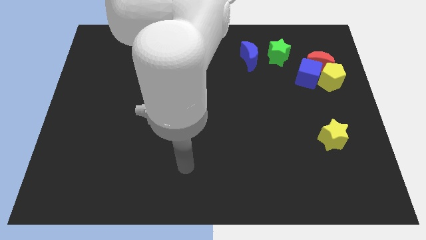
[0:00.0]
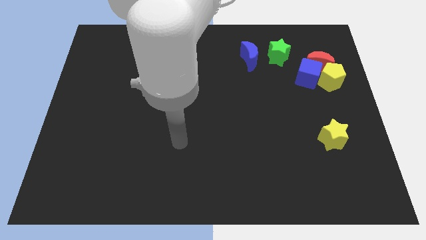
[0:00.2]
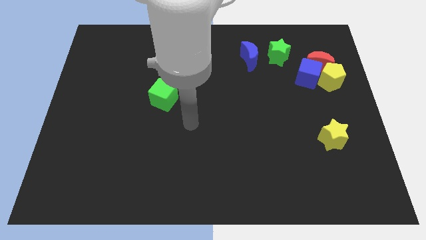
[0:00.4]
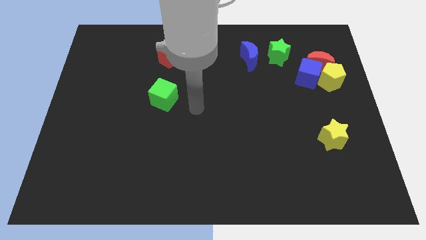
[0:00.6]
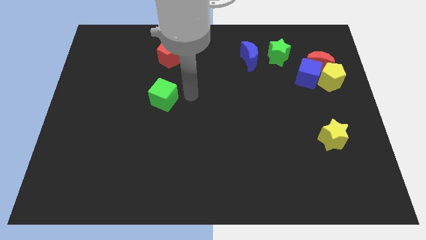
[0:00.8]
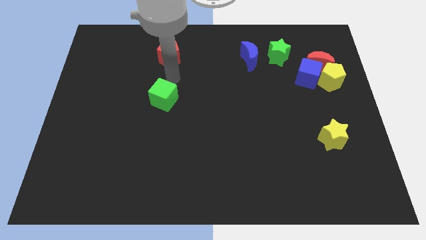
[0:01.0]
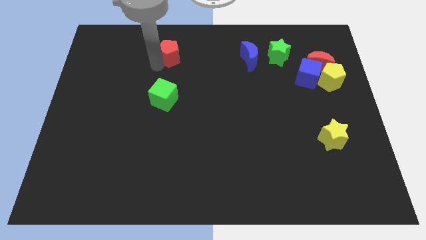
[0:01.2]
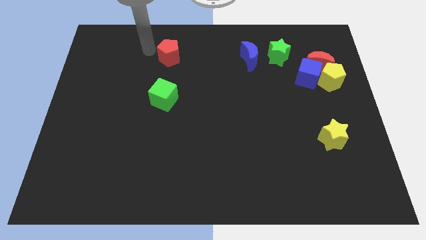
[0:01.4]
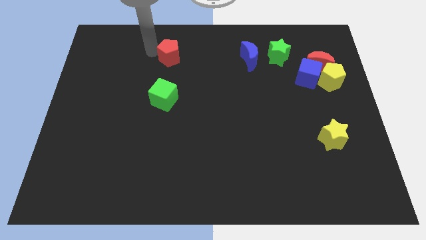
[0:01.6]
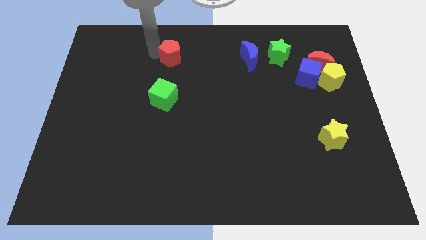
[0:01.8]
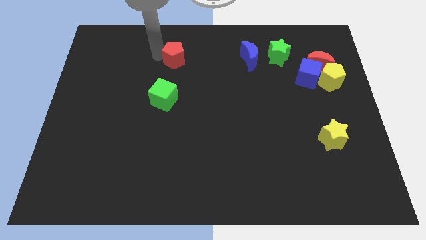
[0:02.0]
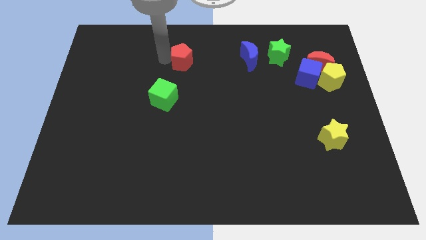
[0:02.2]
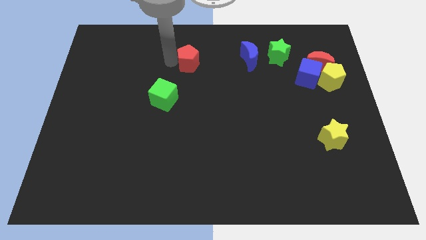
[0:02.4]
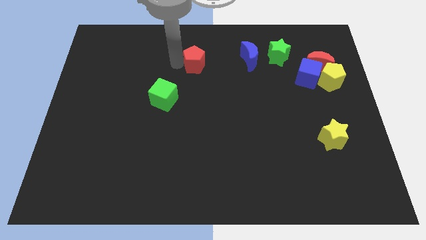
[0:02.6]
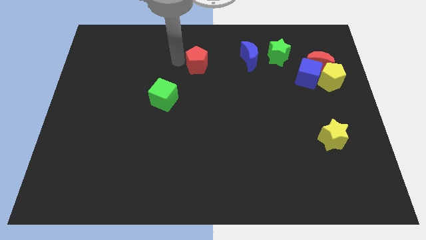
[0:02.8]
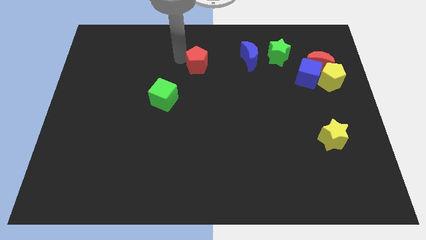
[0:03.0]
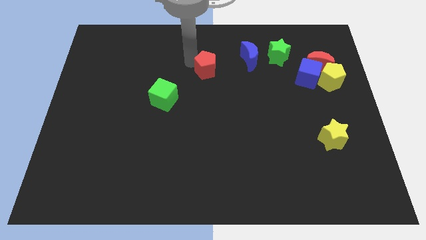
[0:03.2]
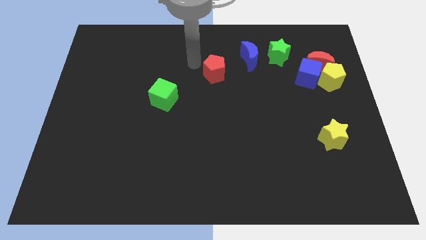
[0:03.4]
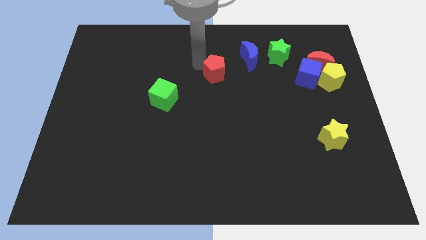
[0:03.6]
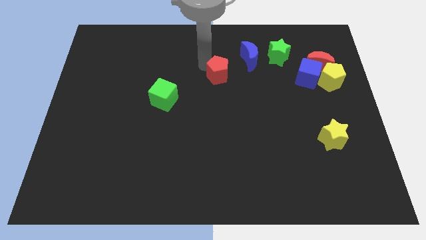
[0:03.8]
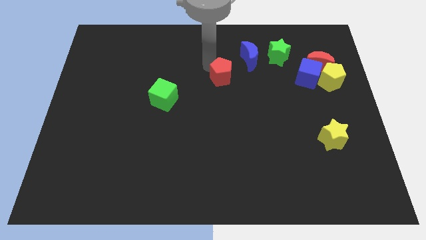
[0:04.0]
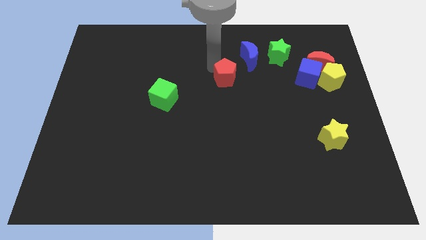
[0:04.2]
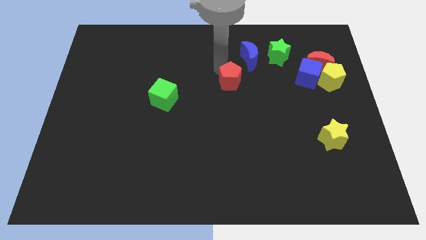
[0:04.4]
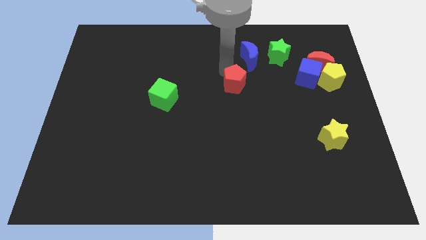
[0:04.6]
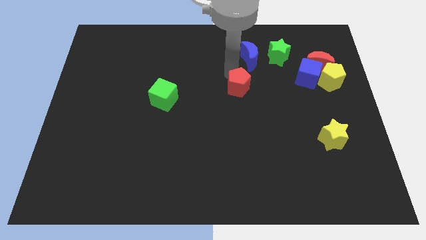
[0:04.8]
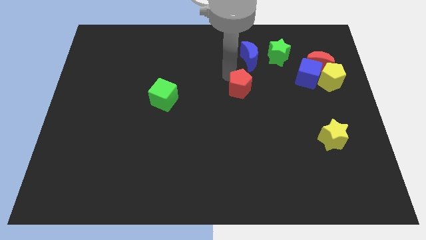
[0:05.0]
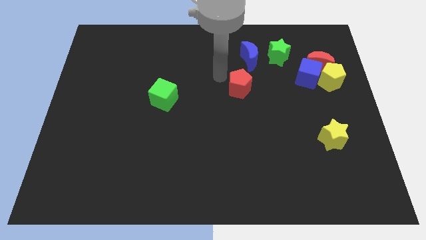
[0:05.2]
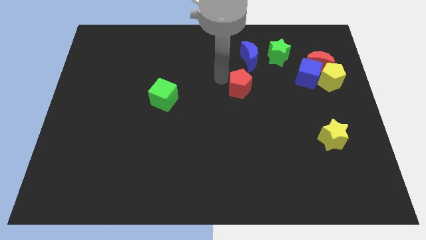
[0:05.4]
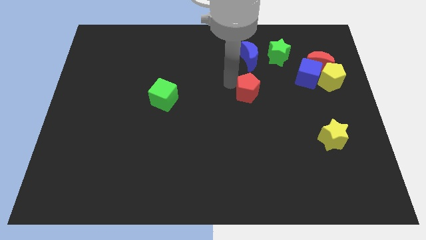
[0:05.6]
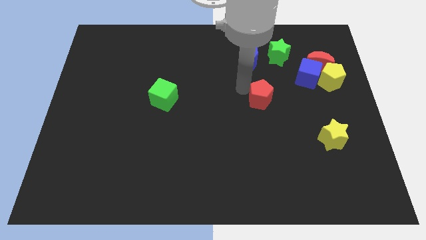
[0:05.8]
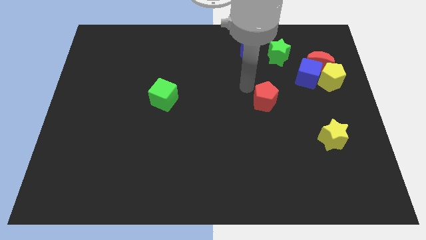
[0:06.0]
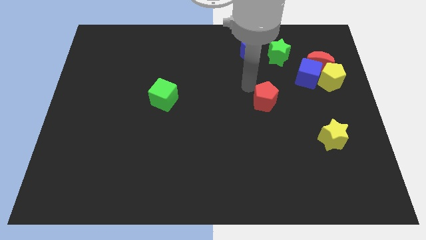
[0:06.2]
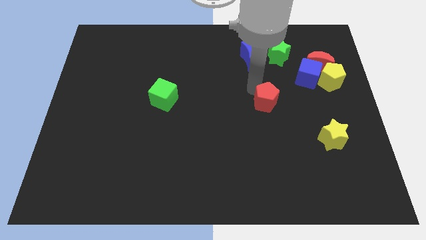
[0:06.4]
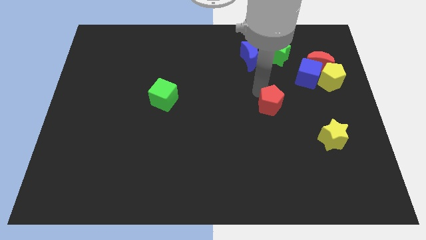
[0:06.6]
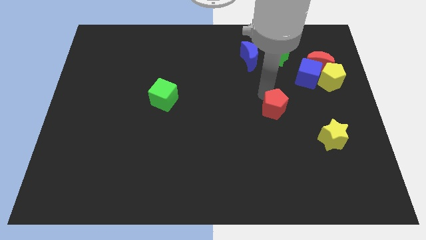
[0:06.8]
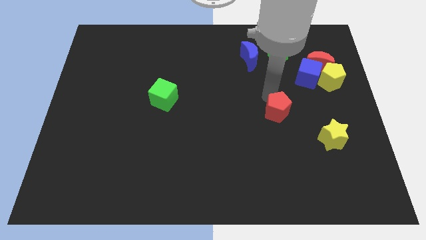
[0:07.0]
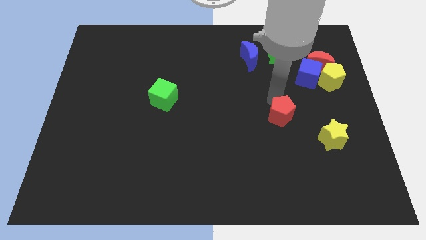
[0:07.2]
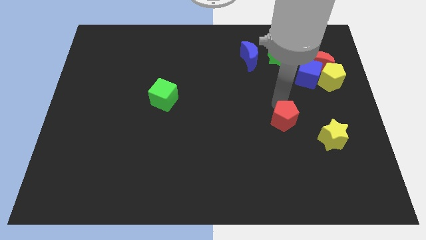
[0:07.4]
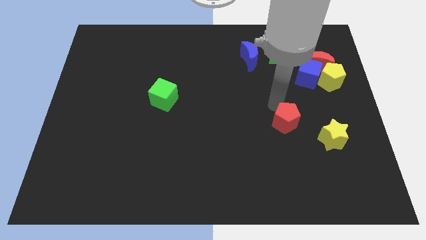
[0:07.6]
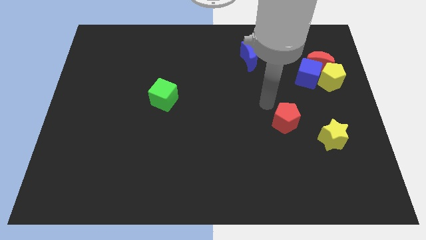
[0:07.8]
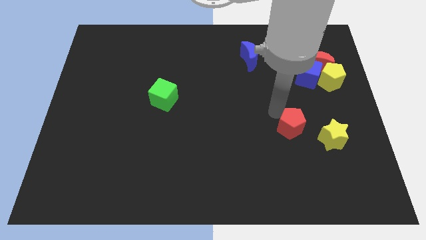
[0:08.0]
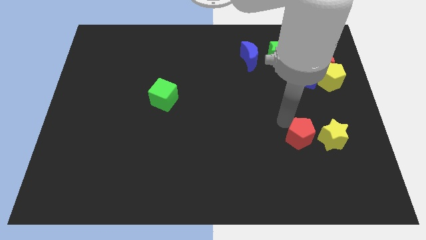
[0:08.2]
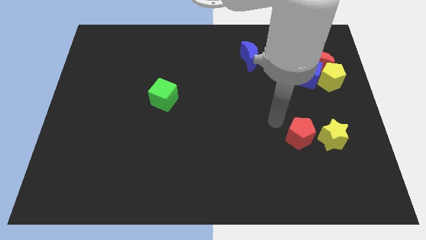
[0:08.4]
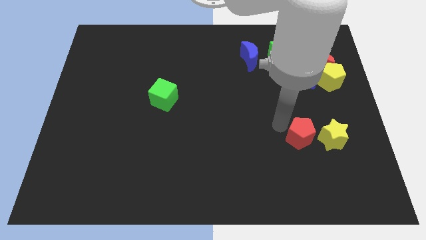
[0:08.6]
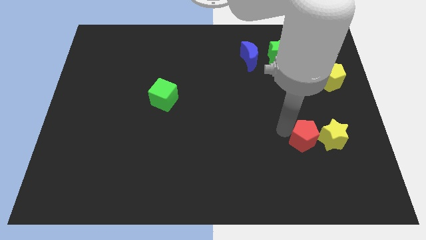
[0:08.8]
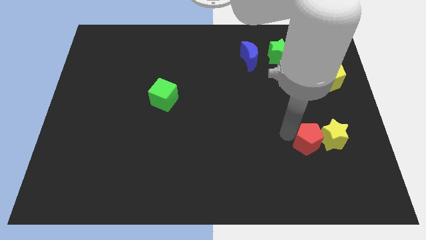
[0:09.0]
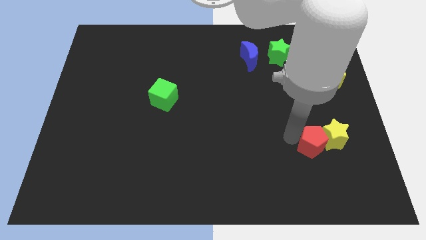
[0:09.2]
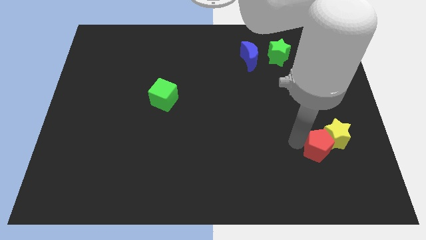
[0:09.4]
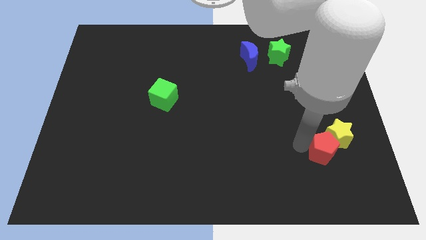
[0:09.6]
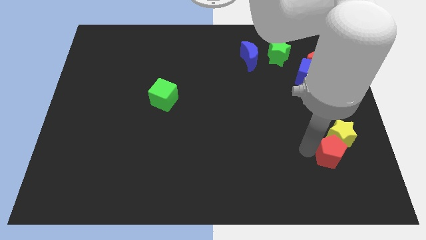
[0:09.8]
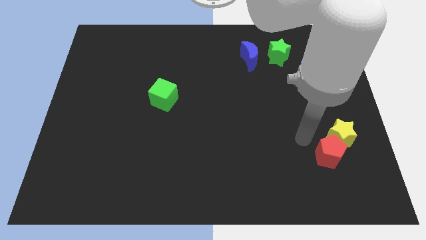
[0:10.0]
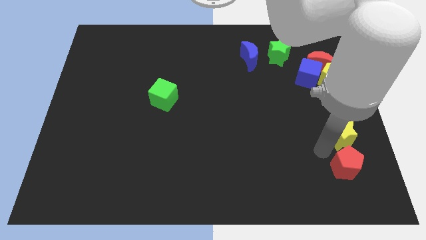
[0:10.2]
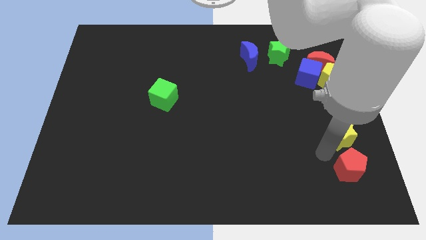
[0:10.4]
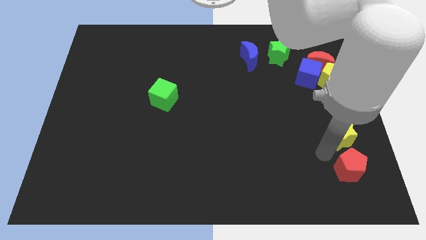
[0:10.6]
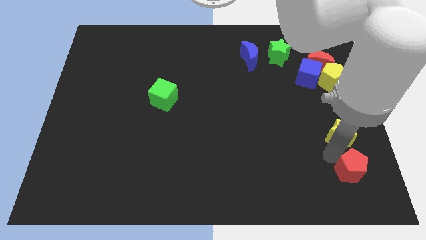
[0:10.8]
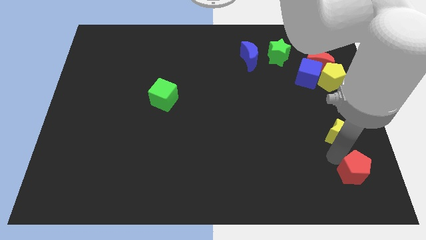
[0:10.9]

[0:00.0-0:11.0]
move the red pentagon to the bottom right of the board
